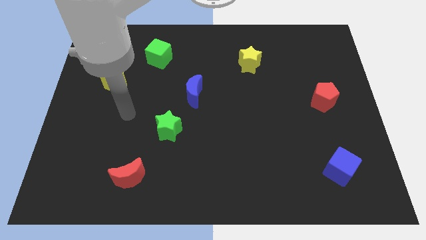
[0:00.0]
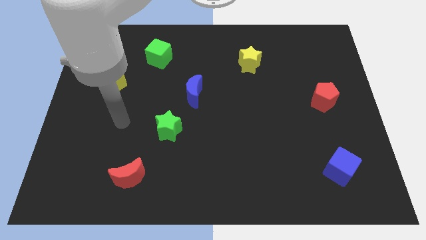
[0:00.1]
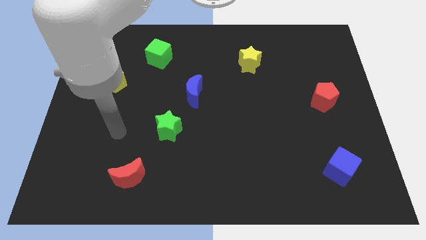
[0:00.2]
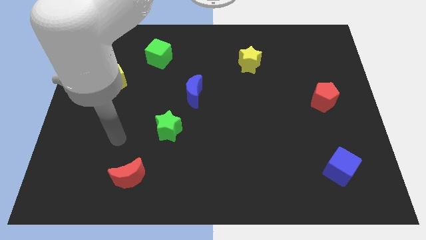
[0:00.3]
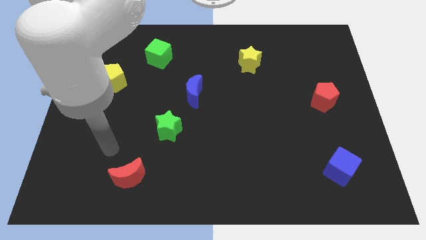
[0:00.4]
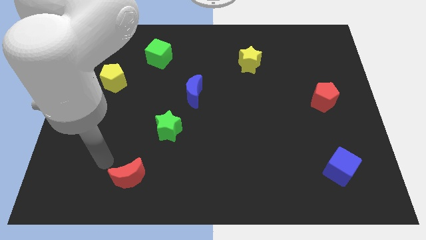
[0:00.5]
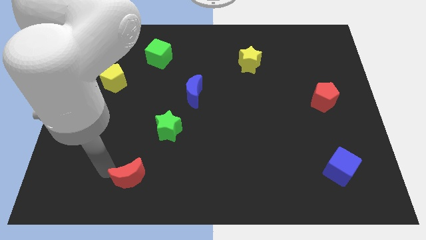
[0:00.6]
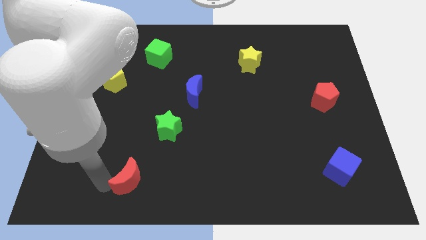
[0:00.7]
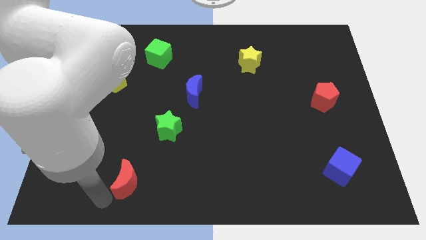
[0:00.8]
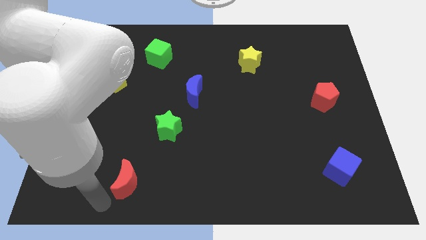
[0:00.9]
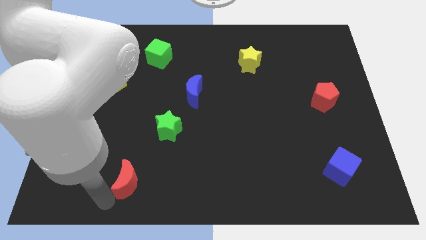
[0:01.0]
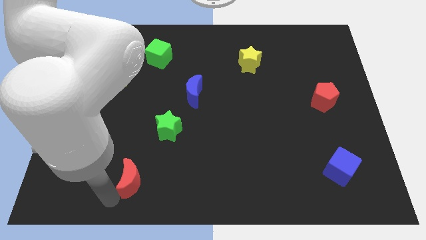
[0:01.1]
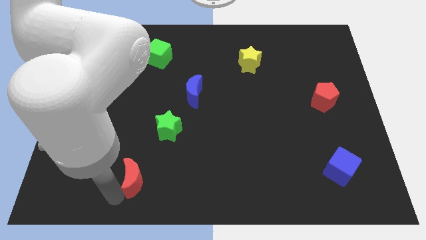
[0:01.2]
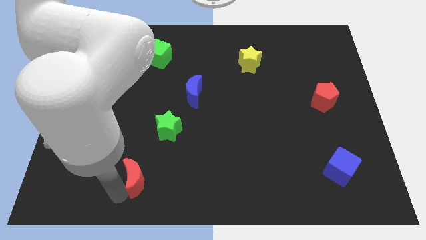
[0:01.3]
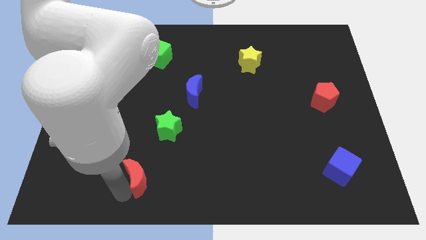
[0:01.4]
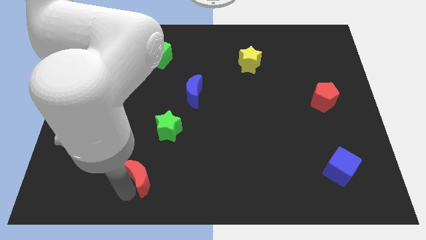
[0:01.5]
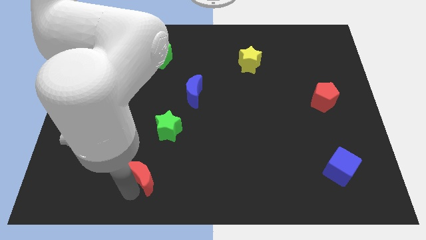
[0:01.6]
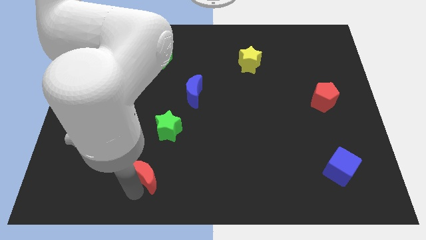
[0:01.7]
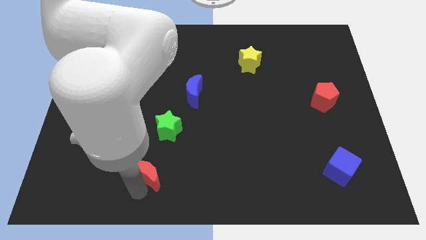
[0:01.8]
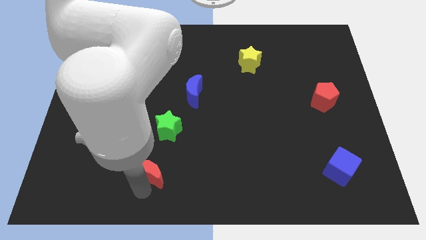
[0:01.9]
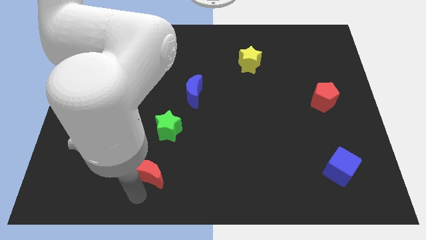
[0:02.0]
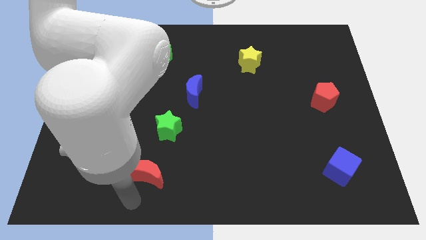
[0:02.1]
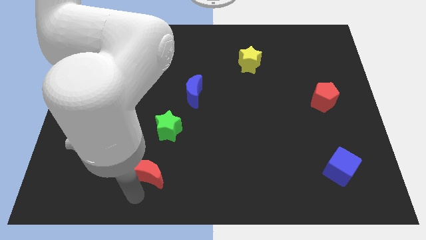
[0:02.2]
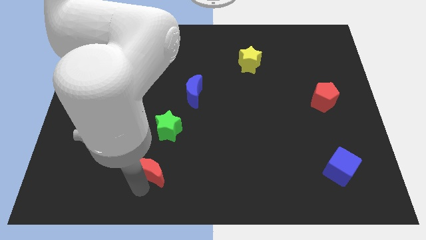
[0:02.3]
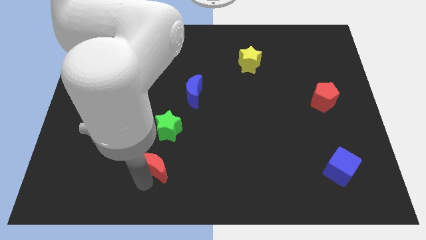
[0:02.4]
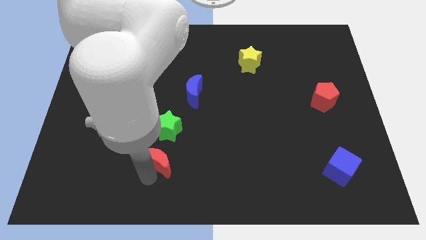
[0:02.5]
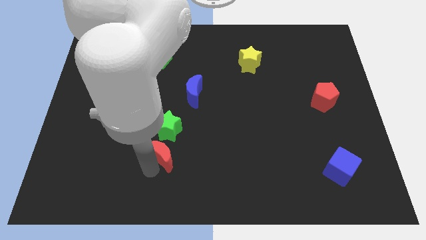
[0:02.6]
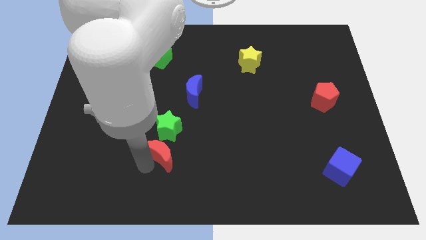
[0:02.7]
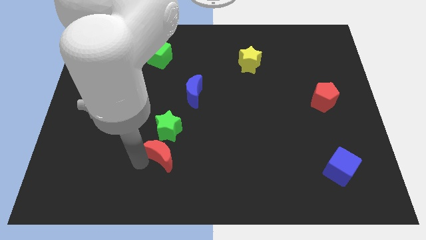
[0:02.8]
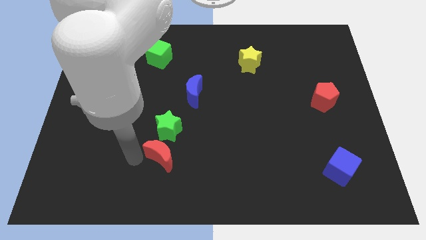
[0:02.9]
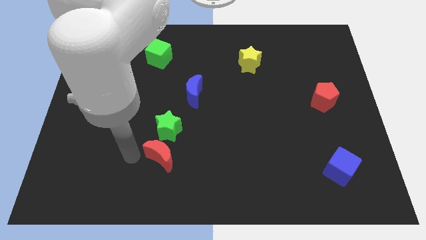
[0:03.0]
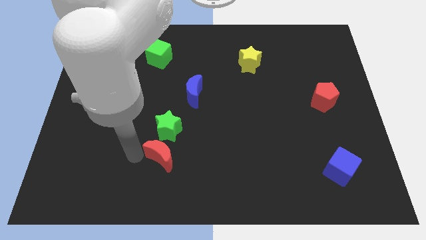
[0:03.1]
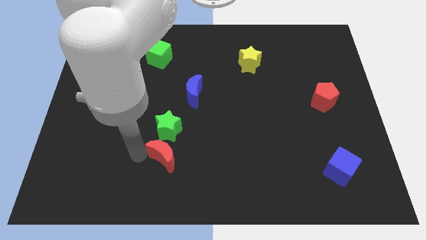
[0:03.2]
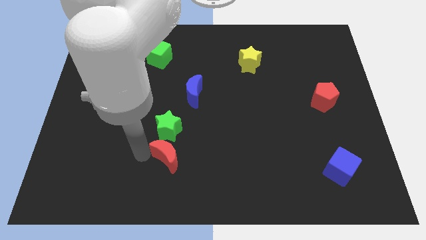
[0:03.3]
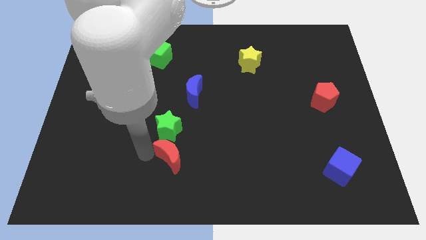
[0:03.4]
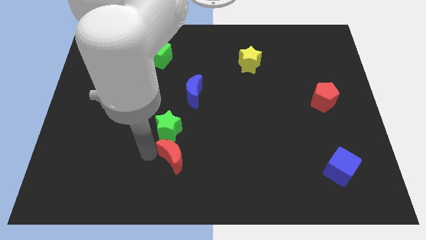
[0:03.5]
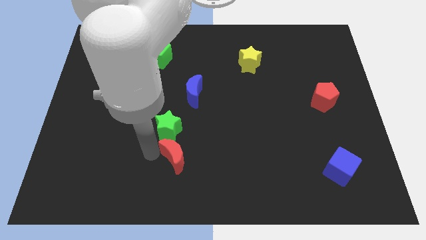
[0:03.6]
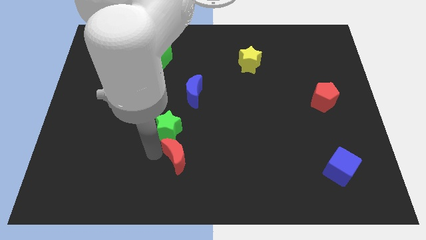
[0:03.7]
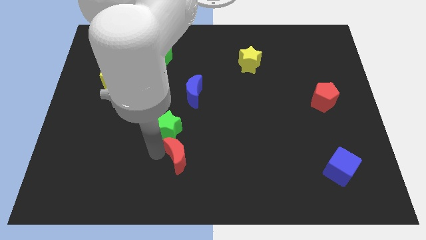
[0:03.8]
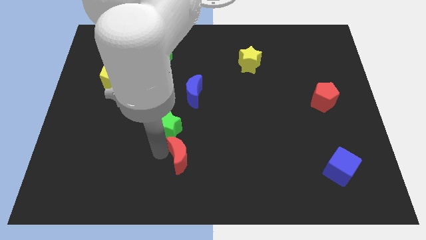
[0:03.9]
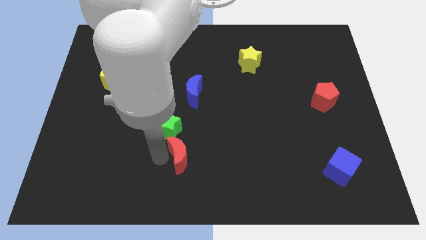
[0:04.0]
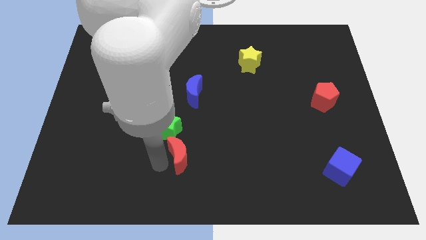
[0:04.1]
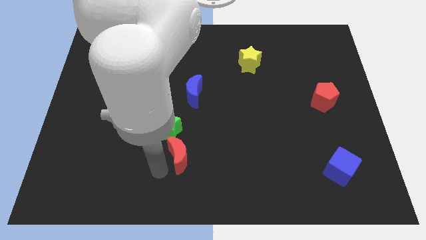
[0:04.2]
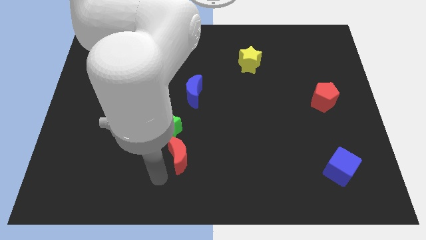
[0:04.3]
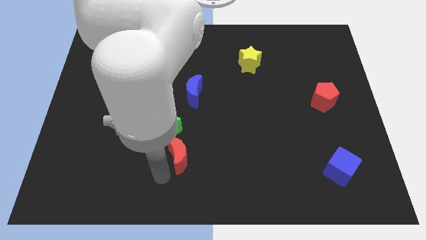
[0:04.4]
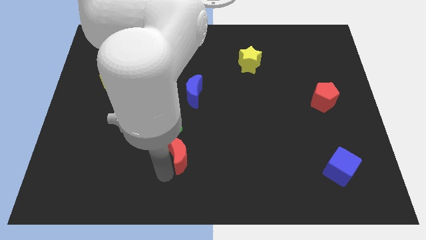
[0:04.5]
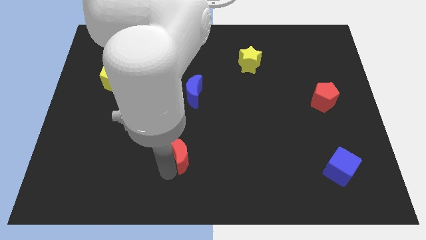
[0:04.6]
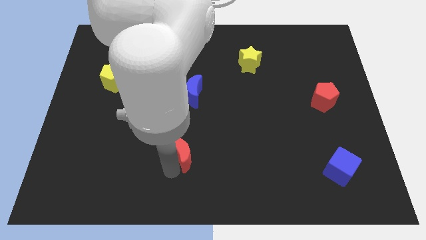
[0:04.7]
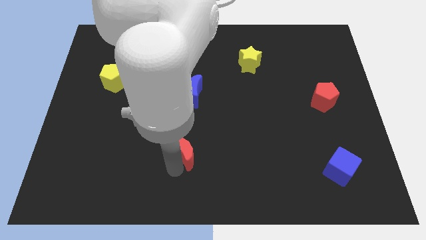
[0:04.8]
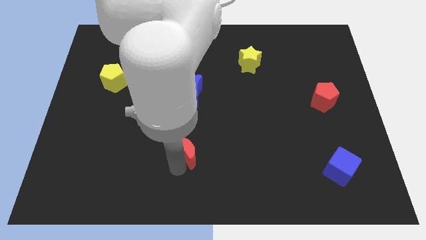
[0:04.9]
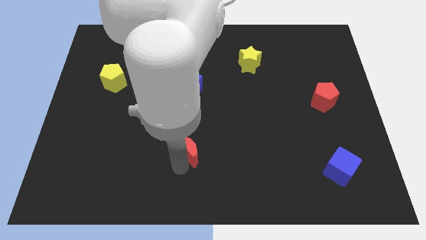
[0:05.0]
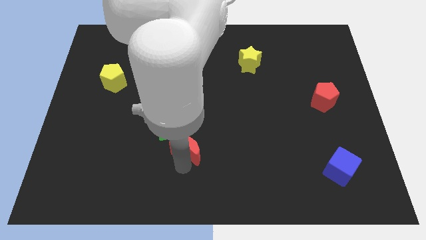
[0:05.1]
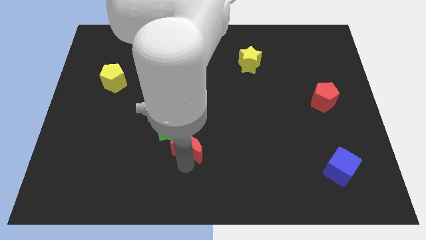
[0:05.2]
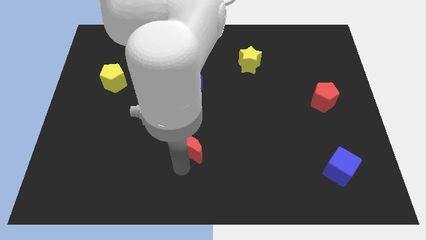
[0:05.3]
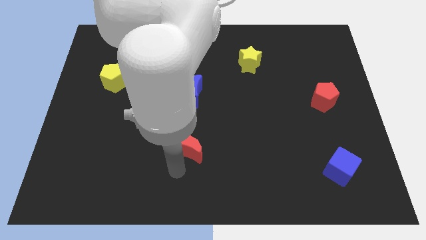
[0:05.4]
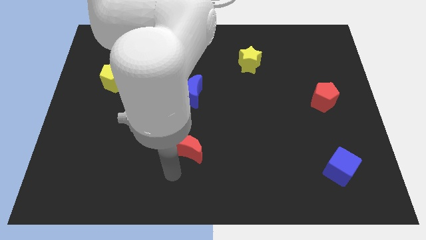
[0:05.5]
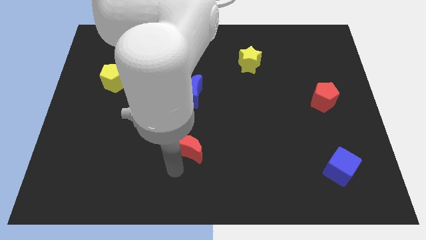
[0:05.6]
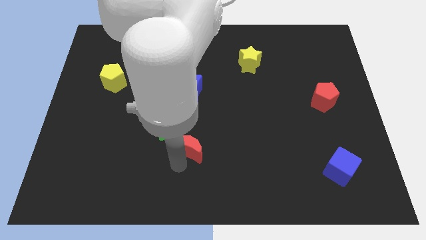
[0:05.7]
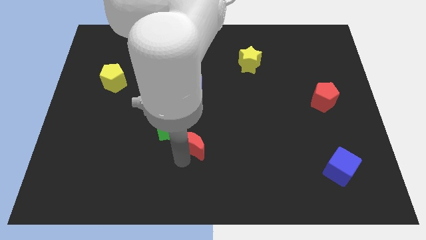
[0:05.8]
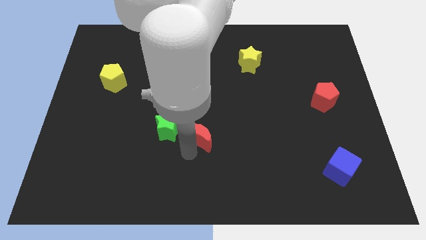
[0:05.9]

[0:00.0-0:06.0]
move the red moon to the middle of the board
